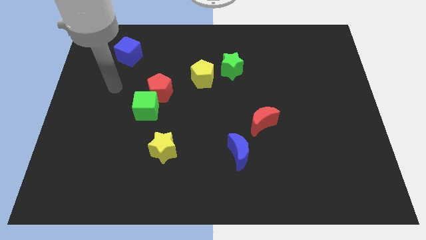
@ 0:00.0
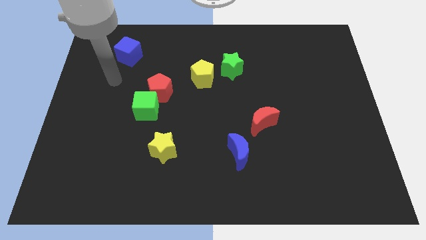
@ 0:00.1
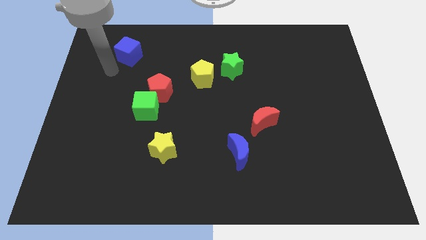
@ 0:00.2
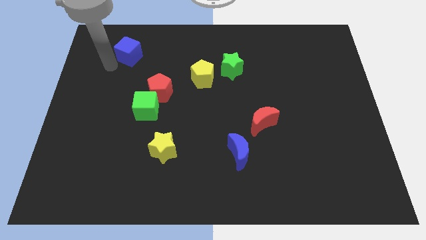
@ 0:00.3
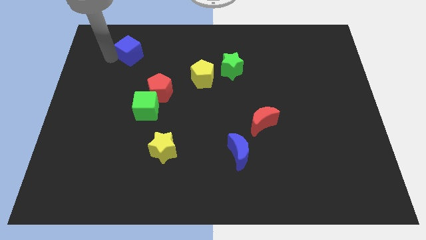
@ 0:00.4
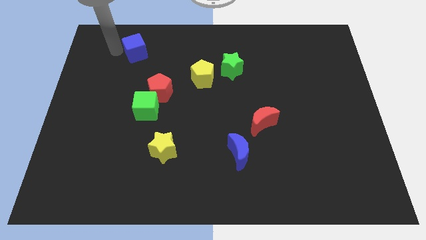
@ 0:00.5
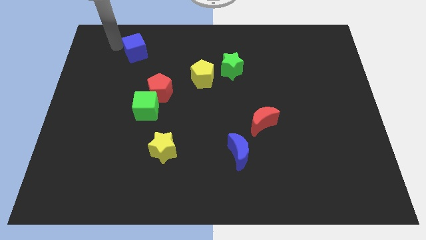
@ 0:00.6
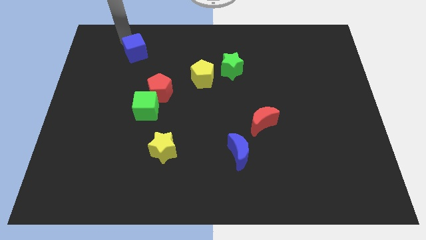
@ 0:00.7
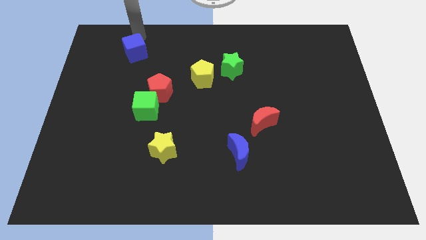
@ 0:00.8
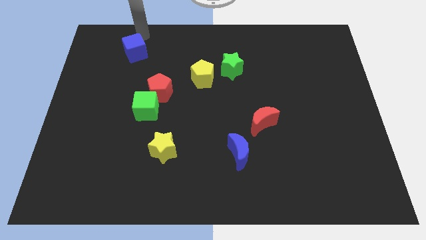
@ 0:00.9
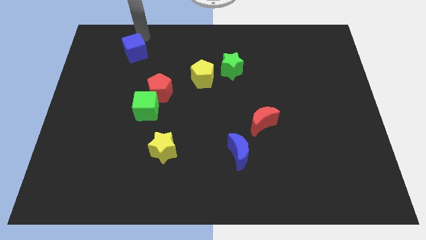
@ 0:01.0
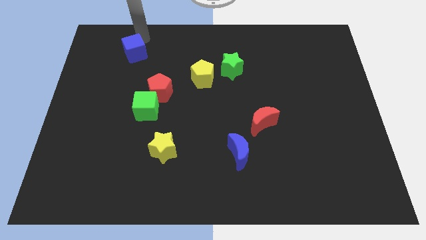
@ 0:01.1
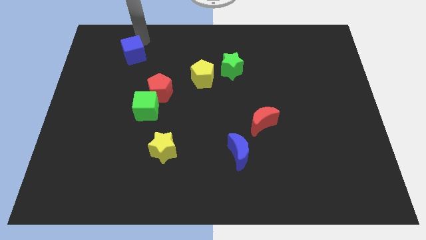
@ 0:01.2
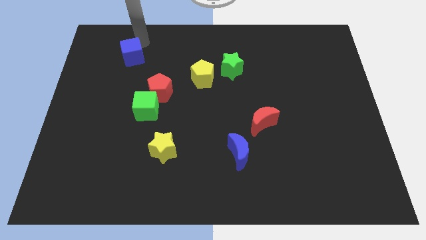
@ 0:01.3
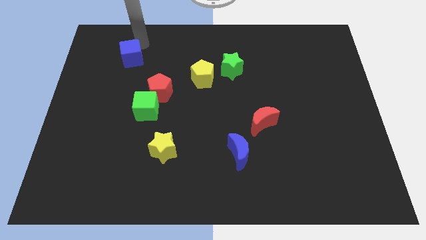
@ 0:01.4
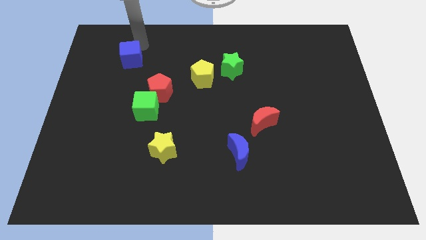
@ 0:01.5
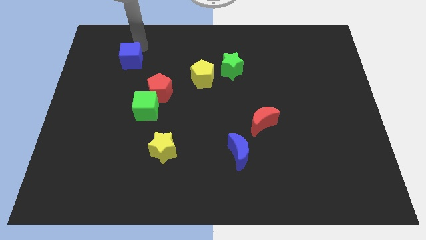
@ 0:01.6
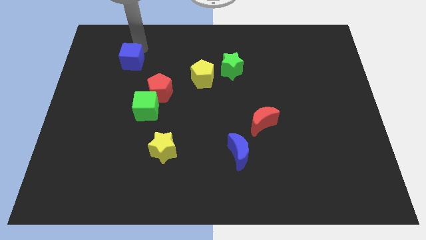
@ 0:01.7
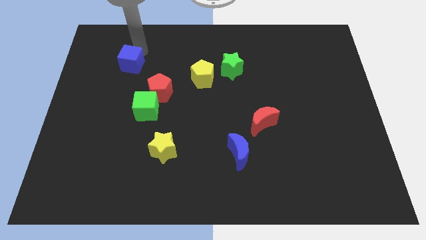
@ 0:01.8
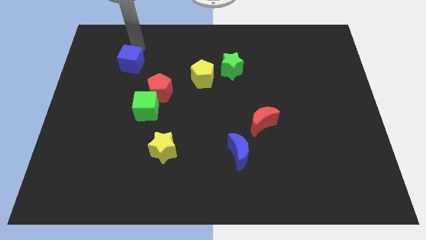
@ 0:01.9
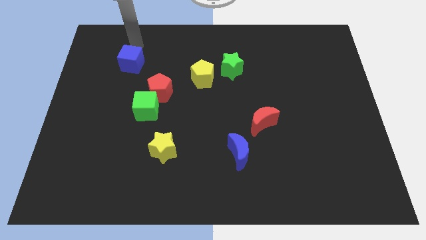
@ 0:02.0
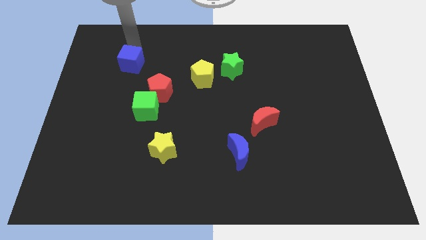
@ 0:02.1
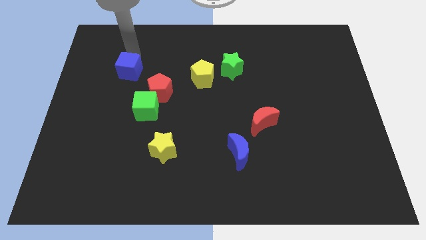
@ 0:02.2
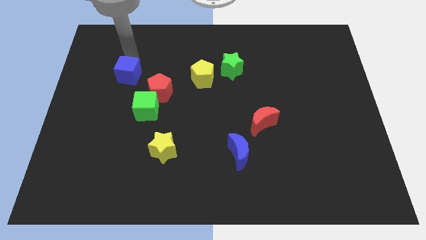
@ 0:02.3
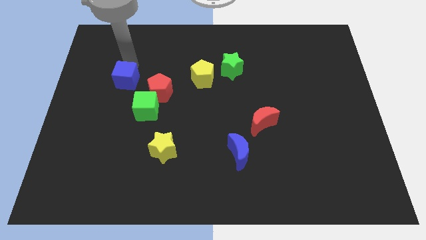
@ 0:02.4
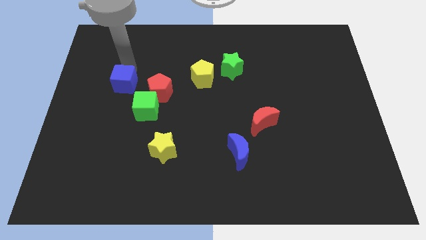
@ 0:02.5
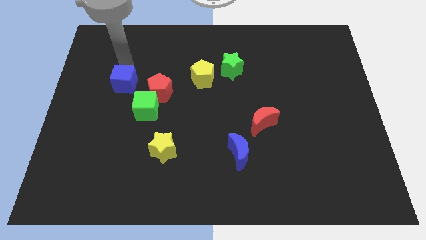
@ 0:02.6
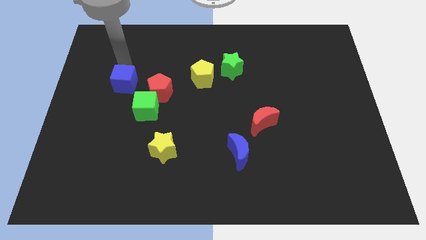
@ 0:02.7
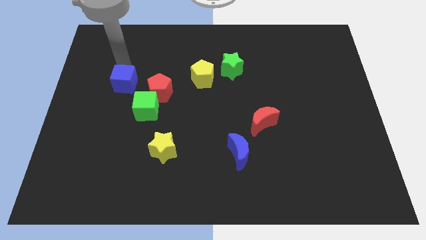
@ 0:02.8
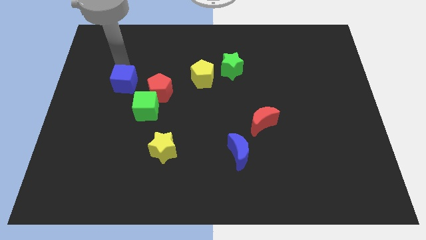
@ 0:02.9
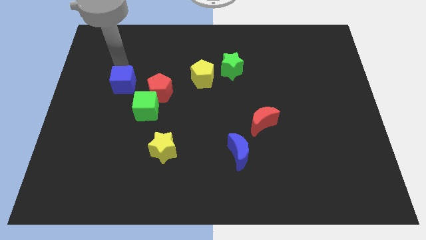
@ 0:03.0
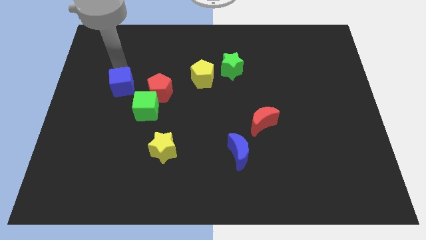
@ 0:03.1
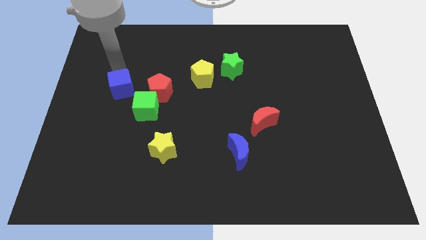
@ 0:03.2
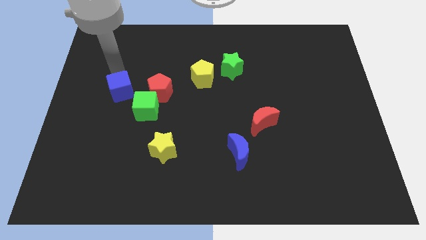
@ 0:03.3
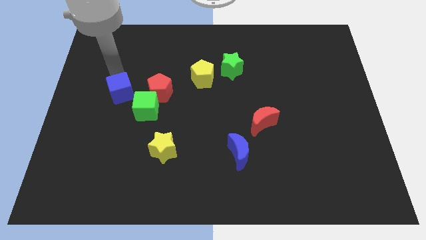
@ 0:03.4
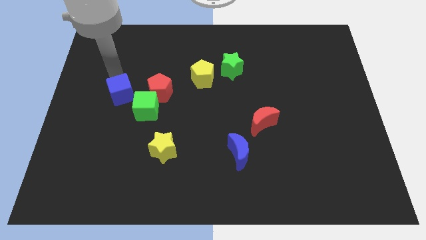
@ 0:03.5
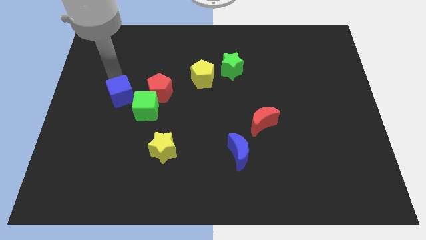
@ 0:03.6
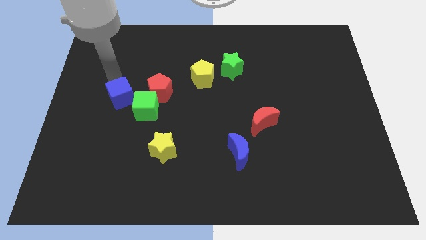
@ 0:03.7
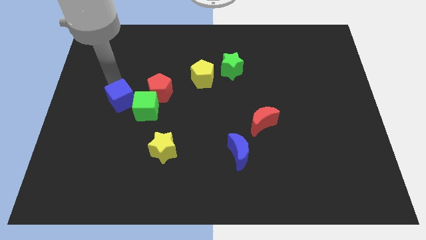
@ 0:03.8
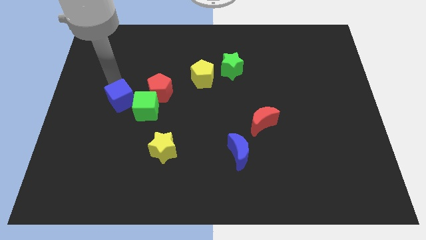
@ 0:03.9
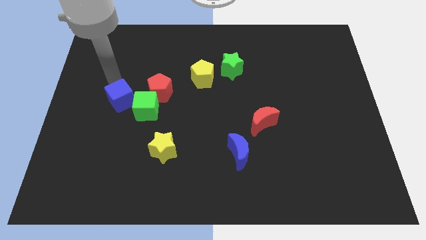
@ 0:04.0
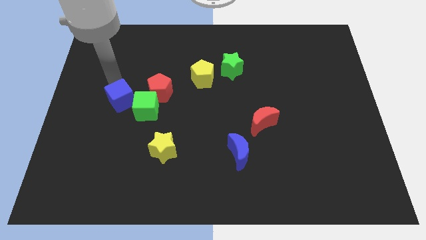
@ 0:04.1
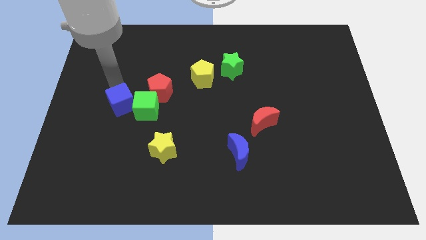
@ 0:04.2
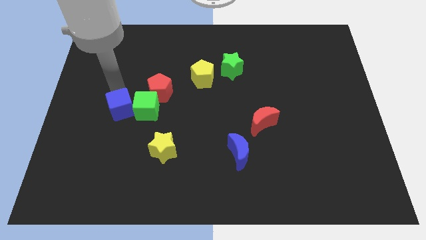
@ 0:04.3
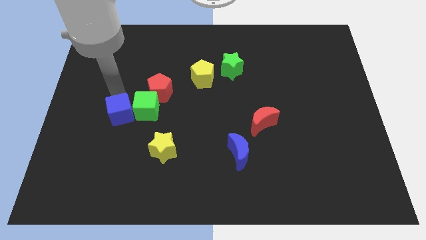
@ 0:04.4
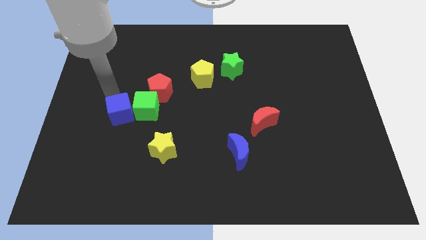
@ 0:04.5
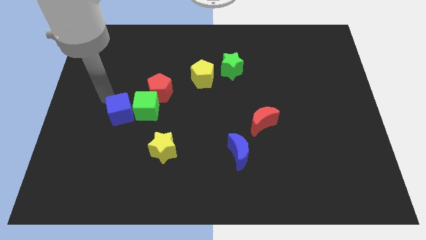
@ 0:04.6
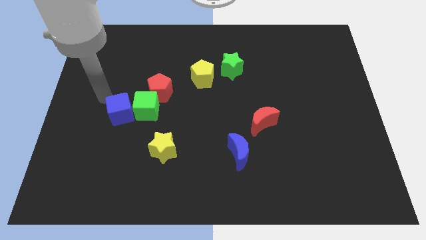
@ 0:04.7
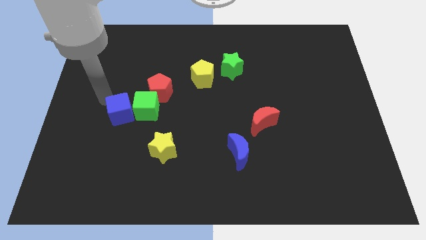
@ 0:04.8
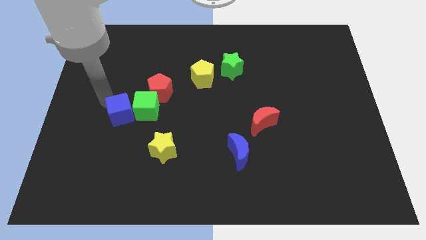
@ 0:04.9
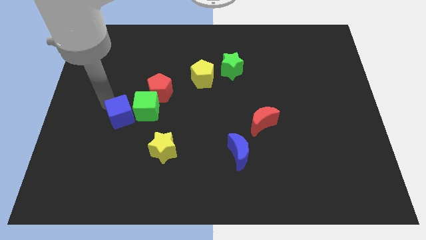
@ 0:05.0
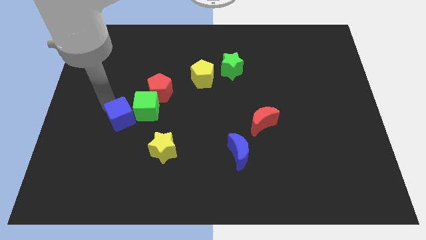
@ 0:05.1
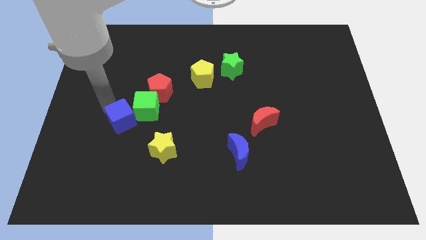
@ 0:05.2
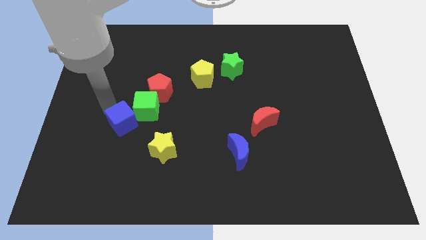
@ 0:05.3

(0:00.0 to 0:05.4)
move the blue cube to the top left side of the yellow star
